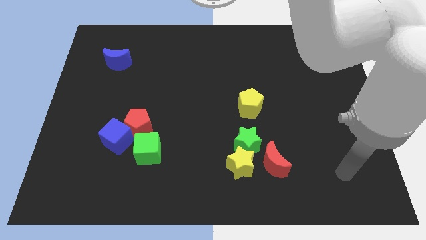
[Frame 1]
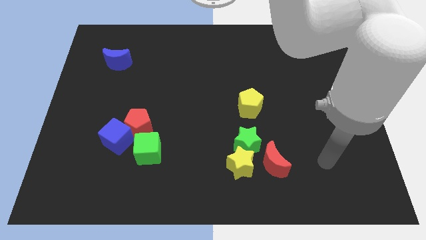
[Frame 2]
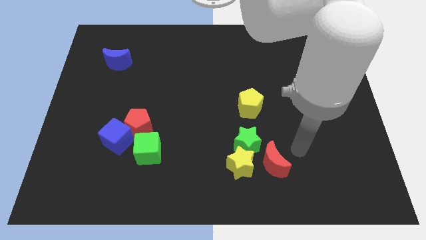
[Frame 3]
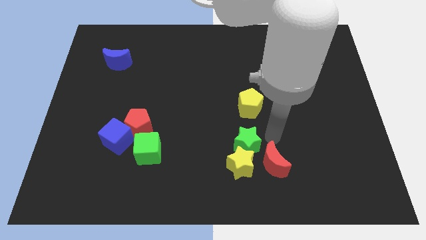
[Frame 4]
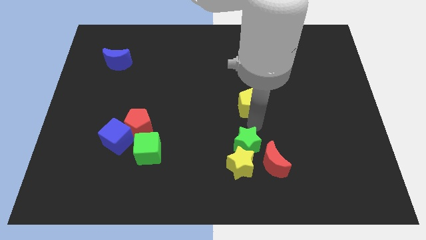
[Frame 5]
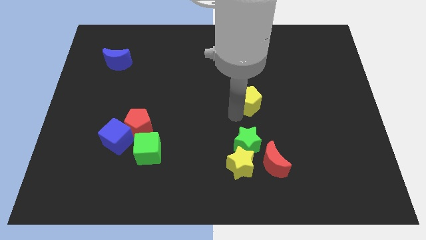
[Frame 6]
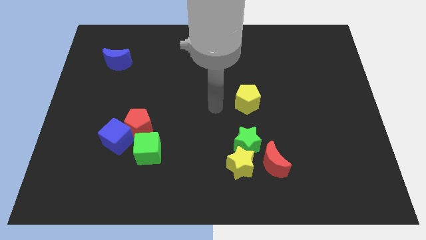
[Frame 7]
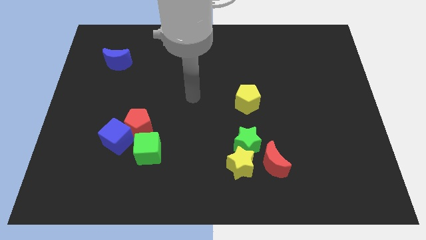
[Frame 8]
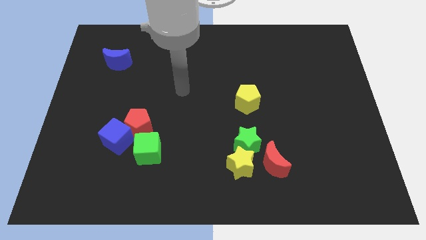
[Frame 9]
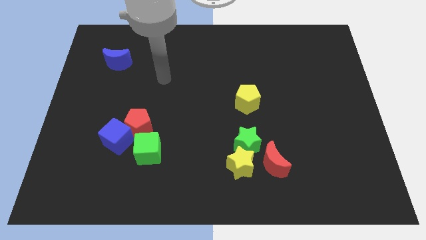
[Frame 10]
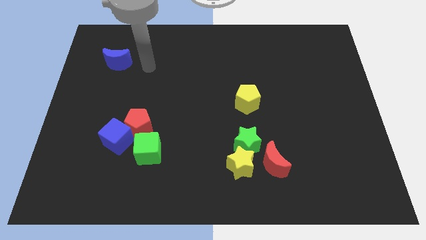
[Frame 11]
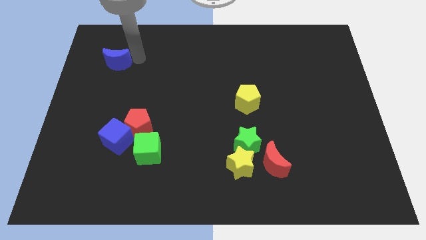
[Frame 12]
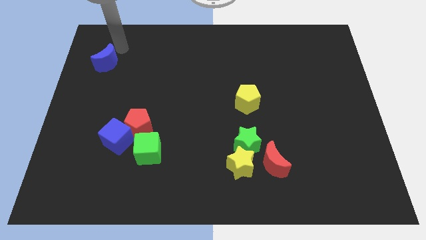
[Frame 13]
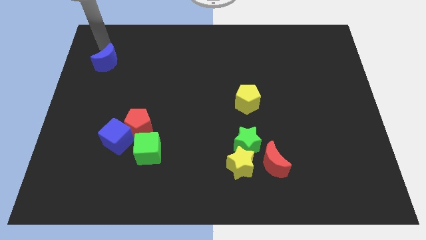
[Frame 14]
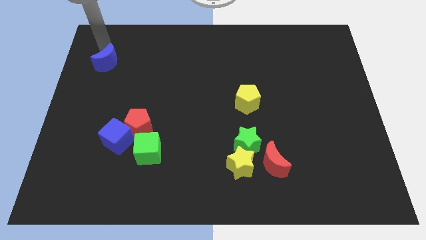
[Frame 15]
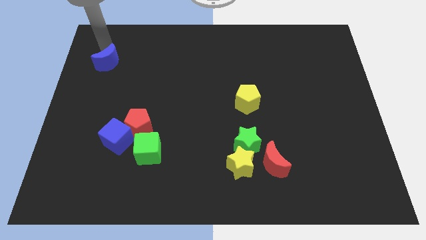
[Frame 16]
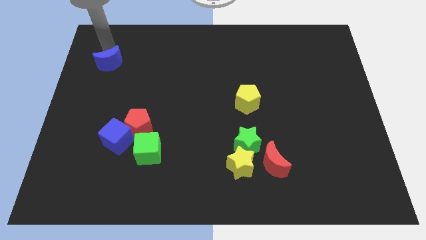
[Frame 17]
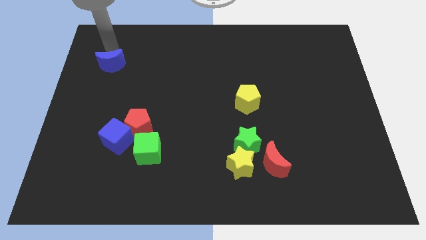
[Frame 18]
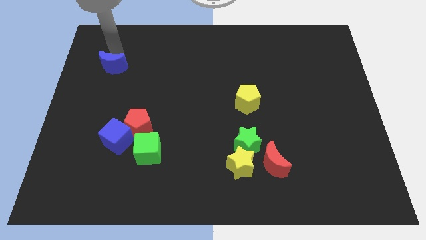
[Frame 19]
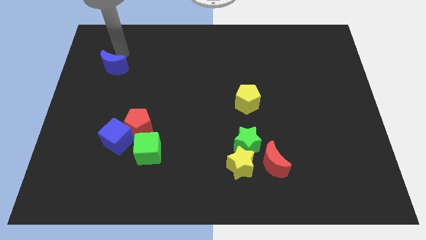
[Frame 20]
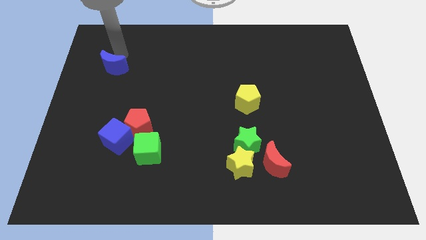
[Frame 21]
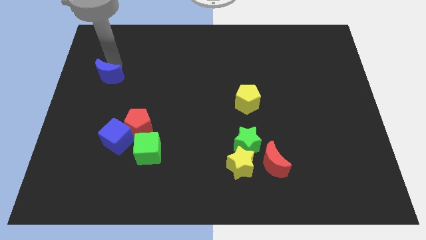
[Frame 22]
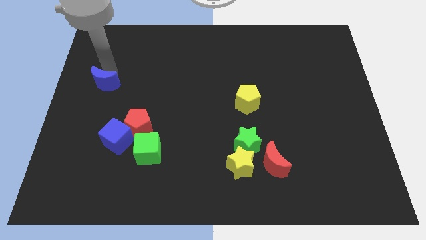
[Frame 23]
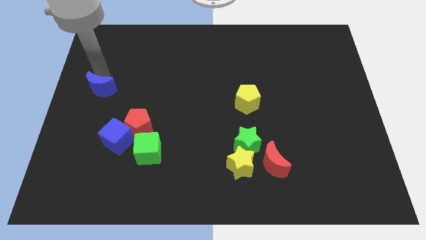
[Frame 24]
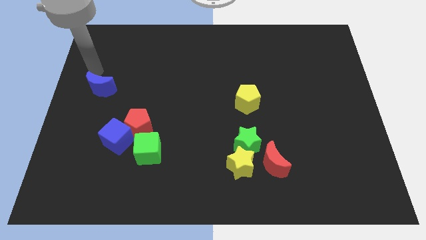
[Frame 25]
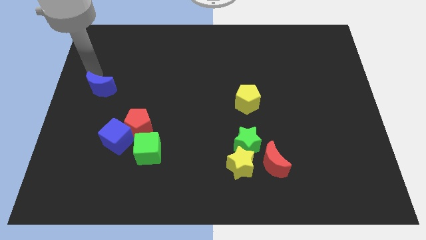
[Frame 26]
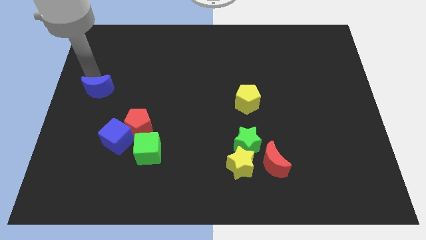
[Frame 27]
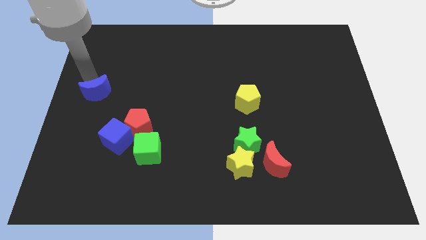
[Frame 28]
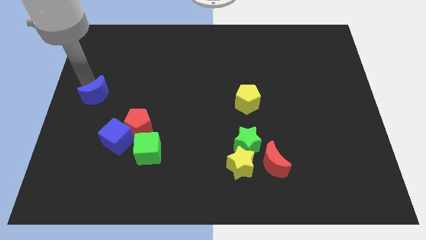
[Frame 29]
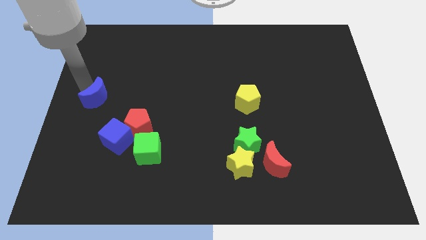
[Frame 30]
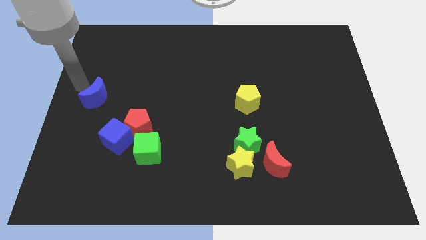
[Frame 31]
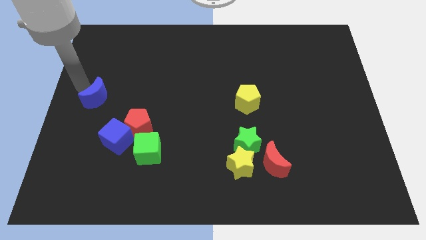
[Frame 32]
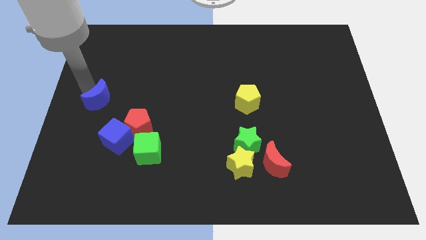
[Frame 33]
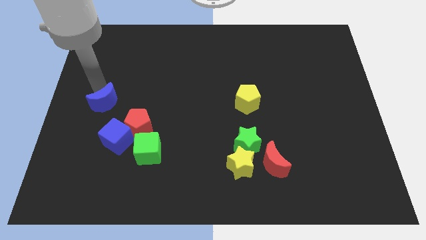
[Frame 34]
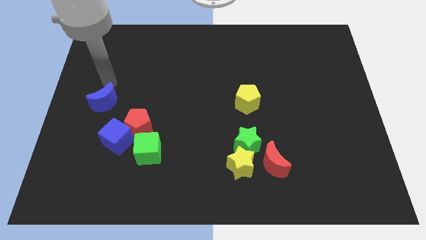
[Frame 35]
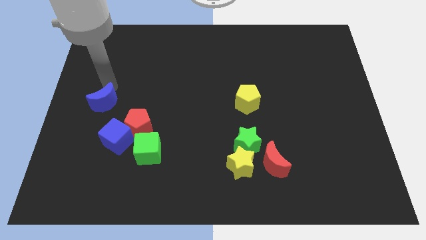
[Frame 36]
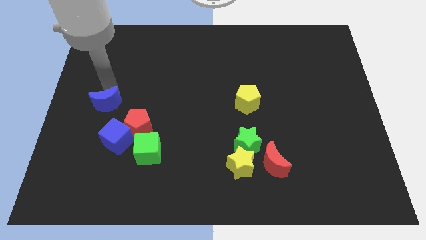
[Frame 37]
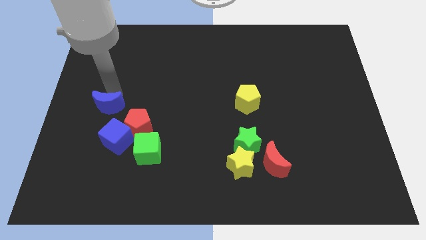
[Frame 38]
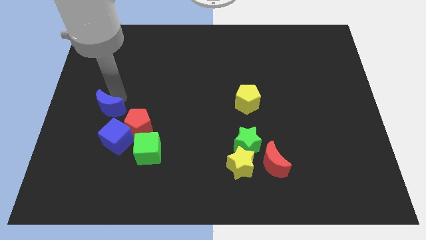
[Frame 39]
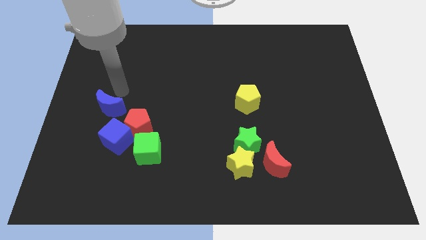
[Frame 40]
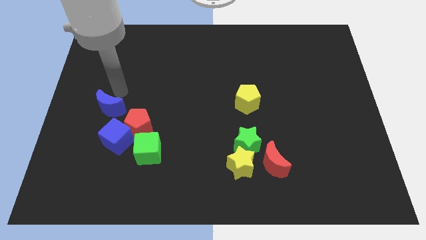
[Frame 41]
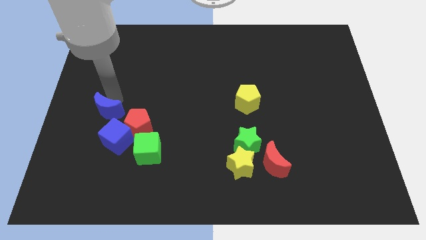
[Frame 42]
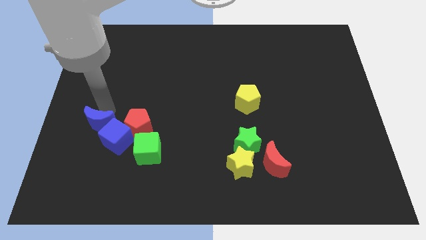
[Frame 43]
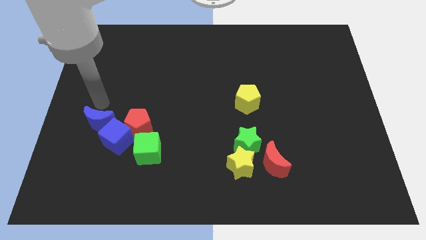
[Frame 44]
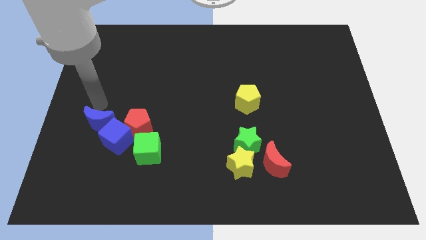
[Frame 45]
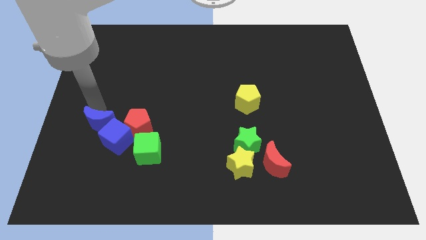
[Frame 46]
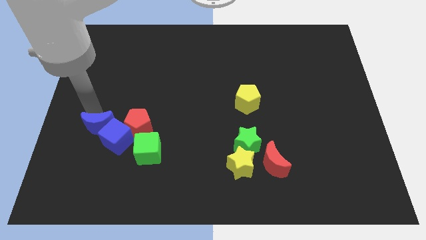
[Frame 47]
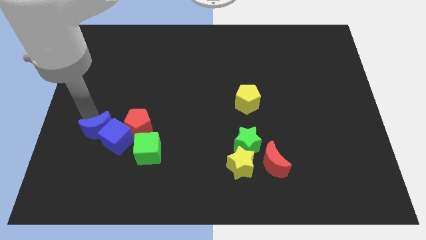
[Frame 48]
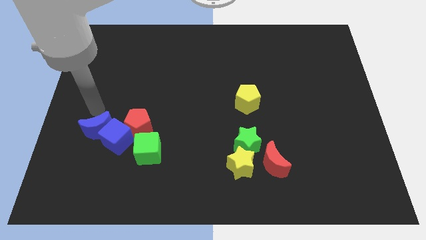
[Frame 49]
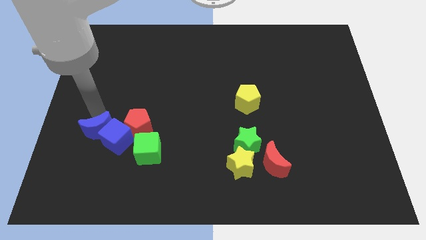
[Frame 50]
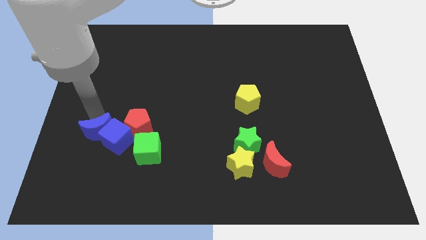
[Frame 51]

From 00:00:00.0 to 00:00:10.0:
push the blue moon left of the green cube

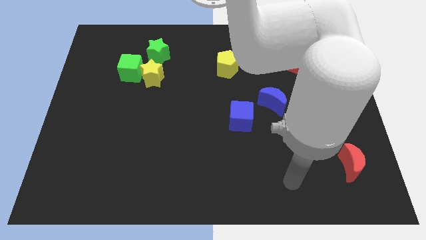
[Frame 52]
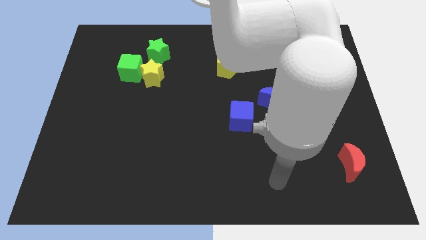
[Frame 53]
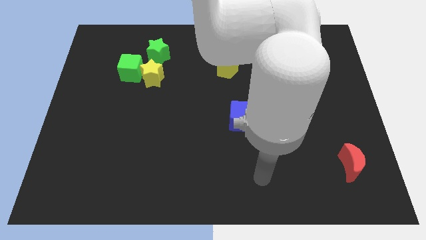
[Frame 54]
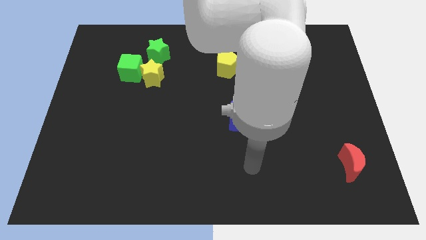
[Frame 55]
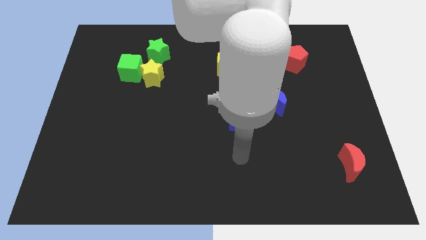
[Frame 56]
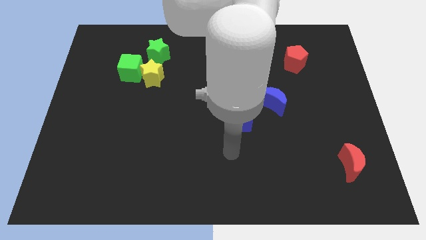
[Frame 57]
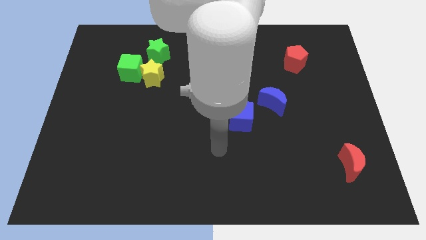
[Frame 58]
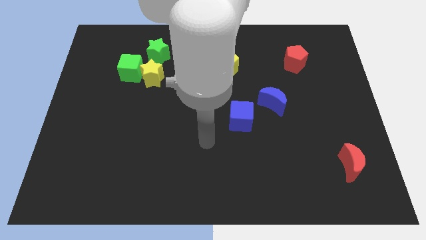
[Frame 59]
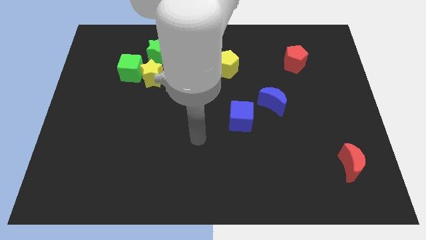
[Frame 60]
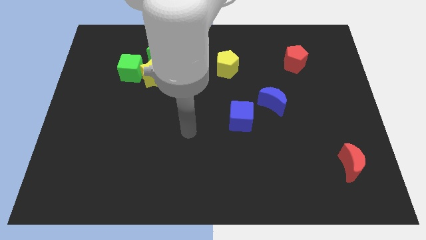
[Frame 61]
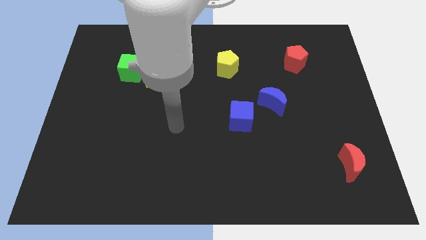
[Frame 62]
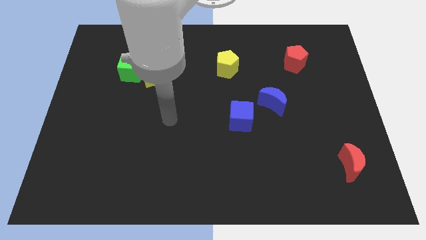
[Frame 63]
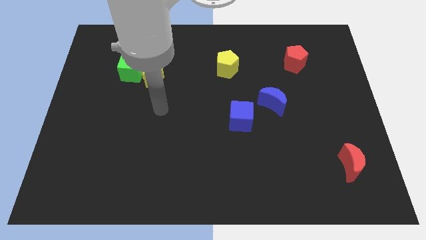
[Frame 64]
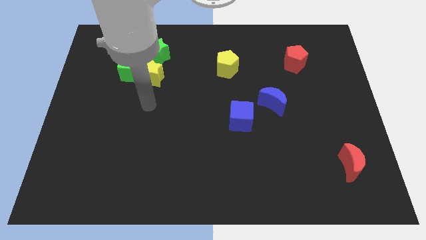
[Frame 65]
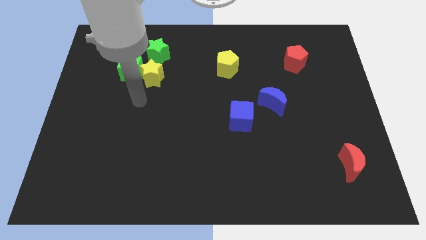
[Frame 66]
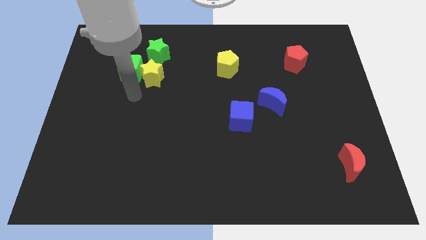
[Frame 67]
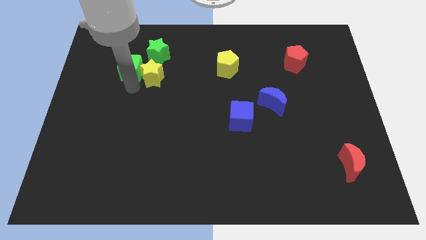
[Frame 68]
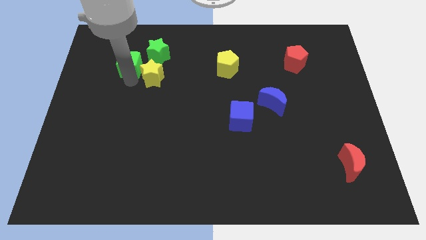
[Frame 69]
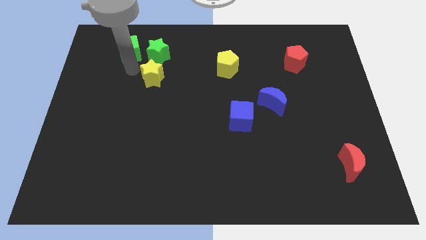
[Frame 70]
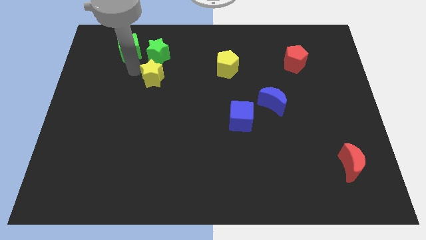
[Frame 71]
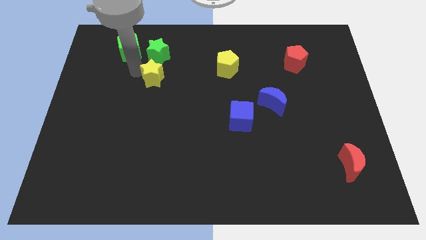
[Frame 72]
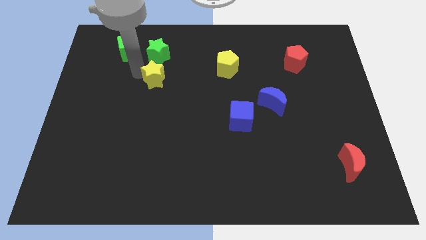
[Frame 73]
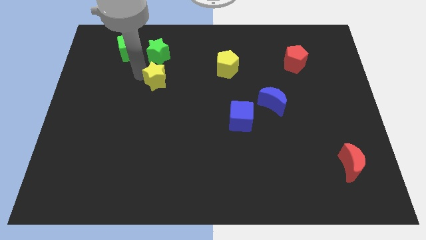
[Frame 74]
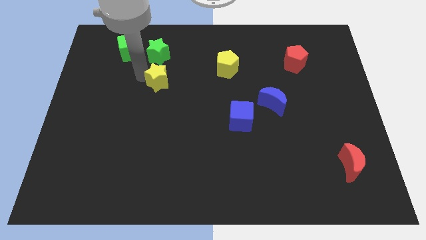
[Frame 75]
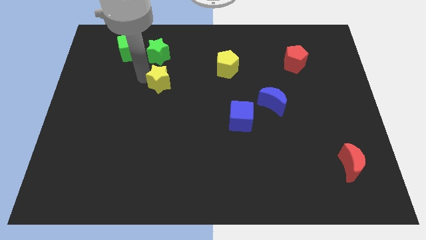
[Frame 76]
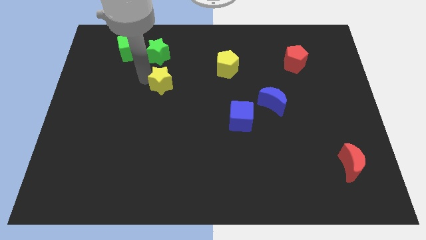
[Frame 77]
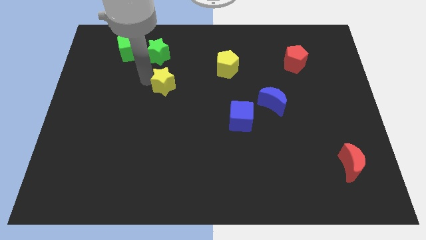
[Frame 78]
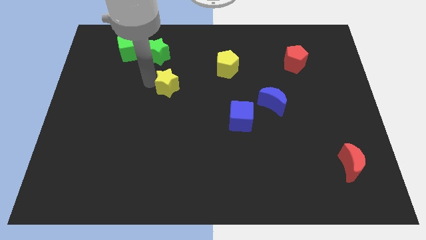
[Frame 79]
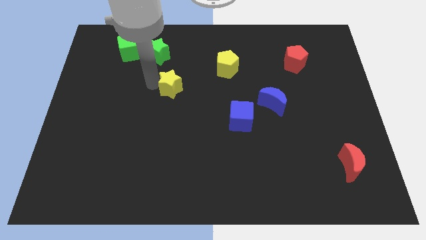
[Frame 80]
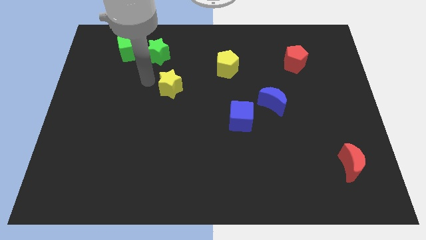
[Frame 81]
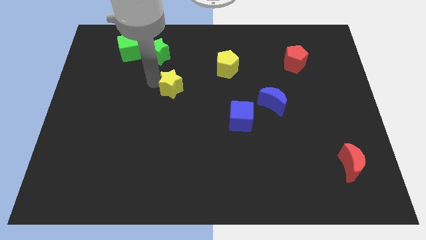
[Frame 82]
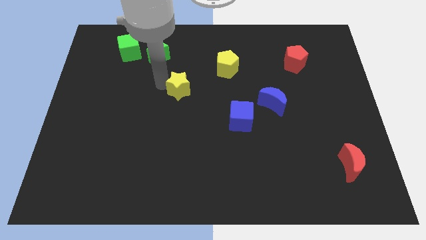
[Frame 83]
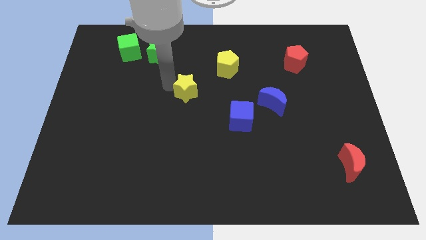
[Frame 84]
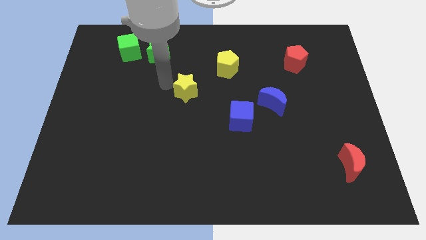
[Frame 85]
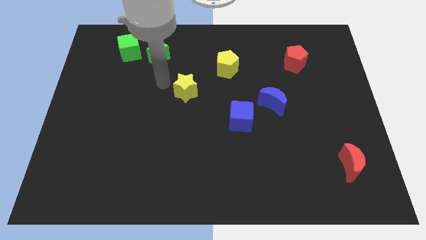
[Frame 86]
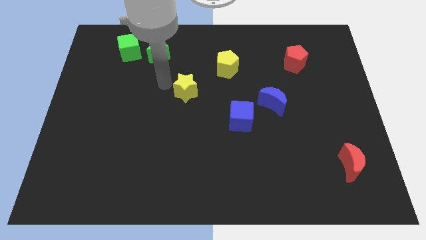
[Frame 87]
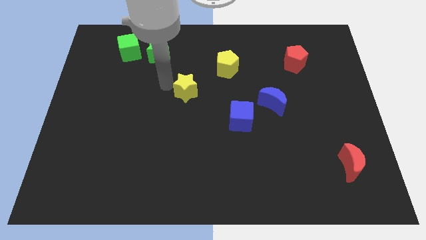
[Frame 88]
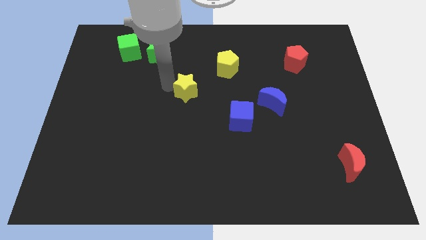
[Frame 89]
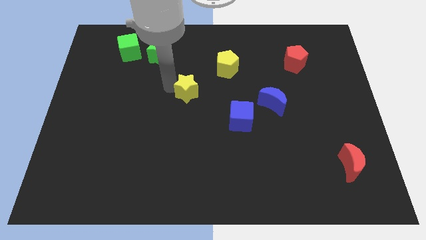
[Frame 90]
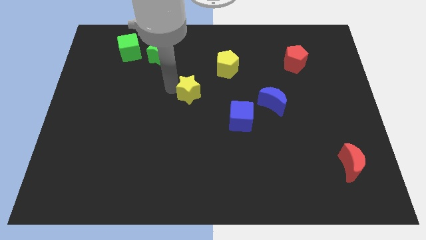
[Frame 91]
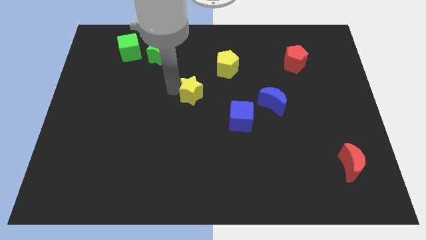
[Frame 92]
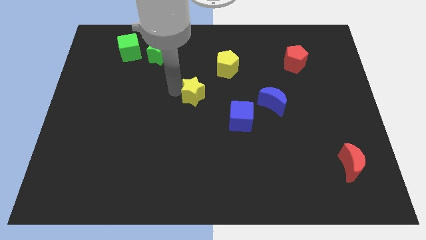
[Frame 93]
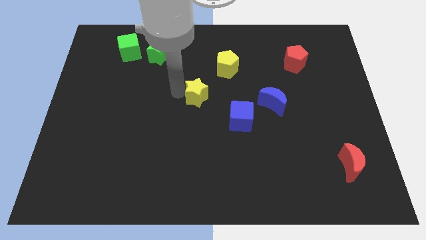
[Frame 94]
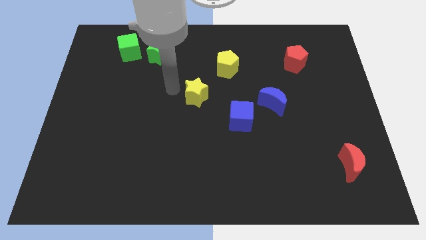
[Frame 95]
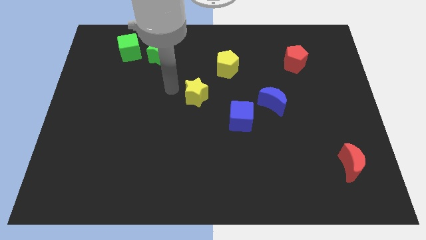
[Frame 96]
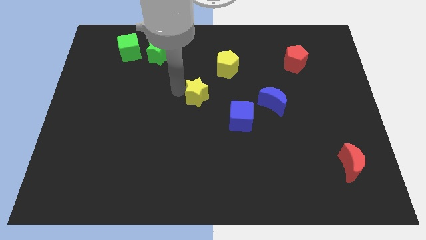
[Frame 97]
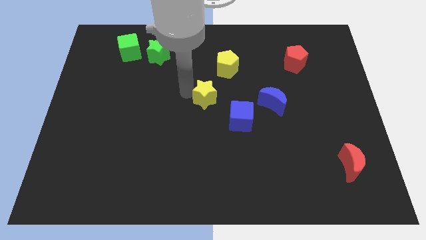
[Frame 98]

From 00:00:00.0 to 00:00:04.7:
slide the yellow star to the left of the blue moon
